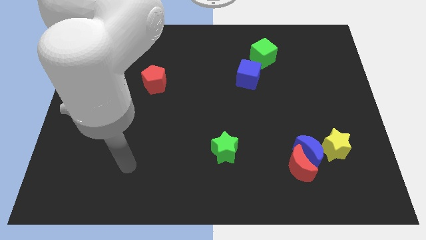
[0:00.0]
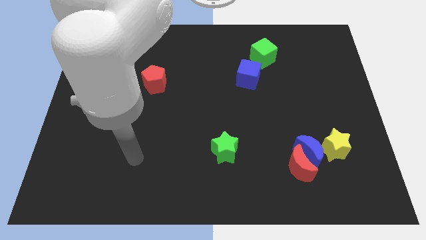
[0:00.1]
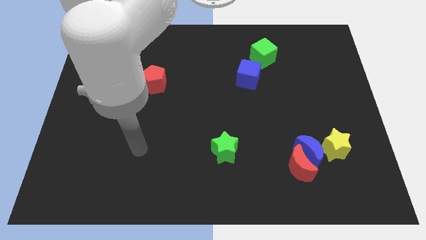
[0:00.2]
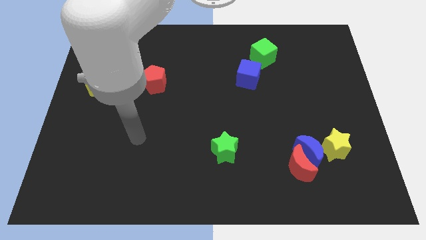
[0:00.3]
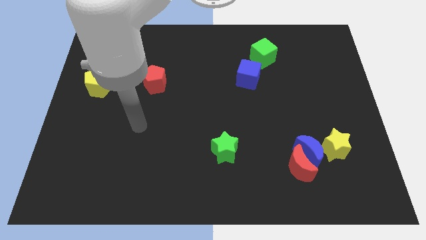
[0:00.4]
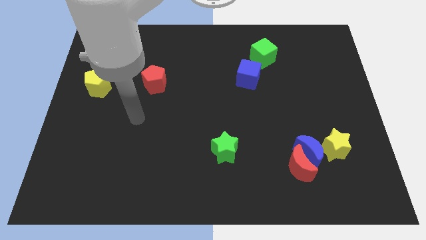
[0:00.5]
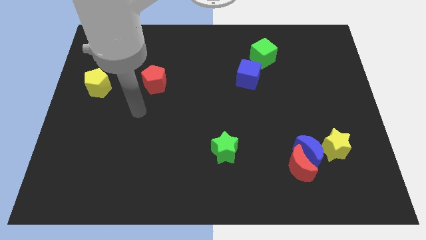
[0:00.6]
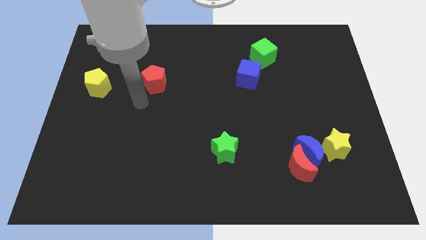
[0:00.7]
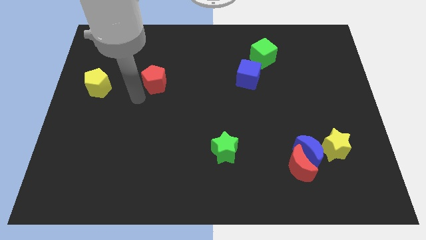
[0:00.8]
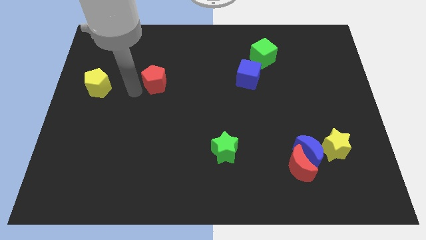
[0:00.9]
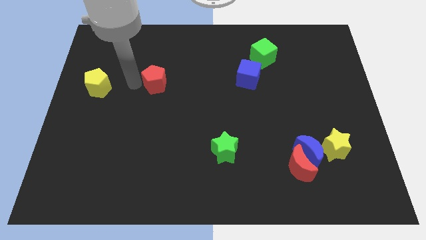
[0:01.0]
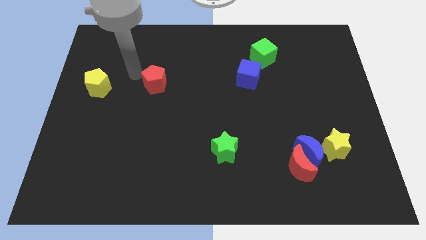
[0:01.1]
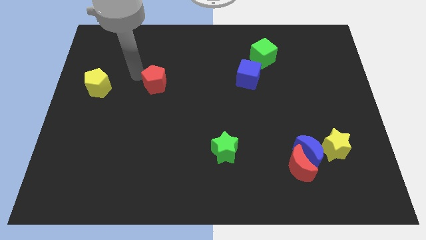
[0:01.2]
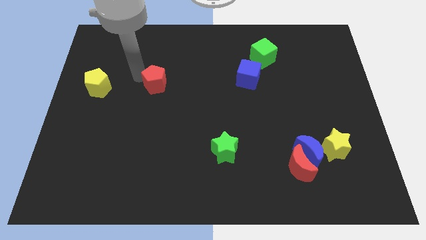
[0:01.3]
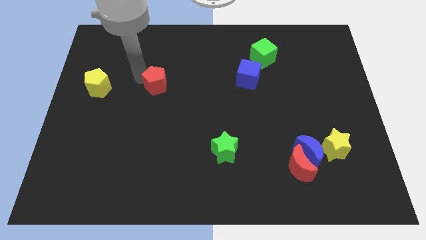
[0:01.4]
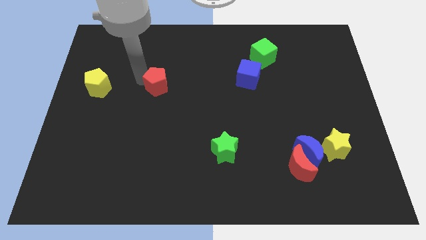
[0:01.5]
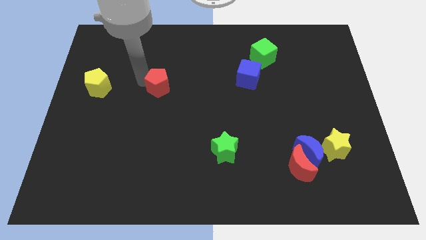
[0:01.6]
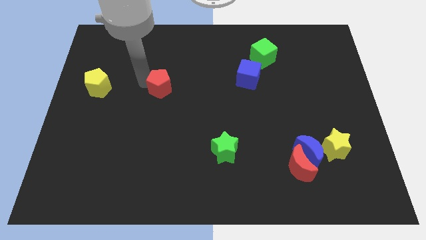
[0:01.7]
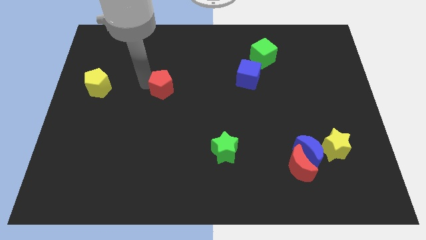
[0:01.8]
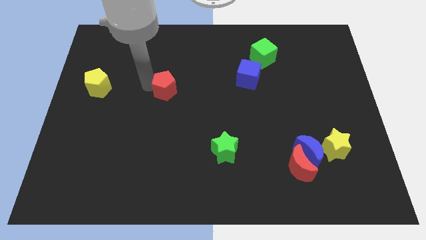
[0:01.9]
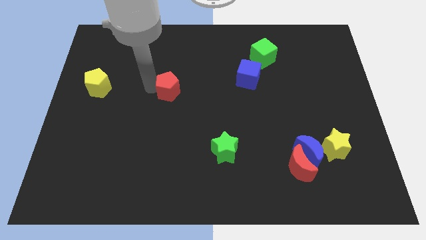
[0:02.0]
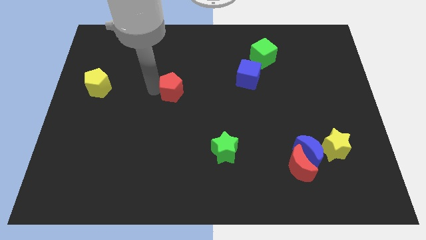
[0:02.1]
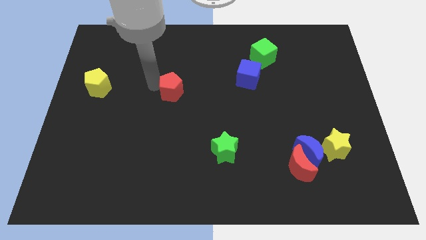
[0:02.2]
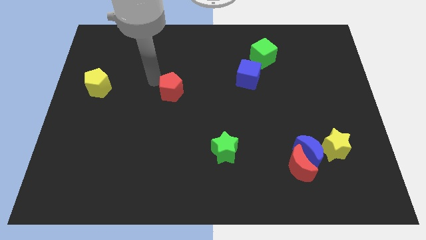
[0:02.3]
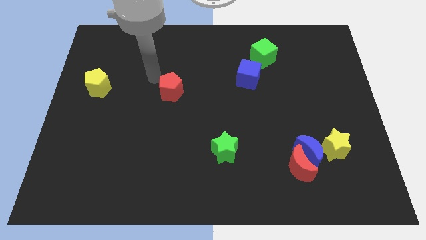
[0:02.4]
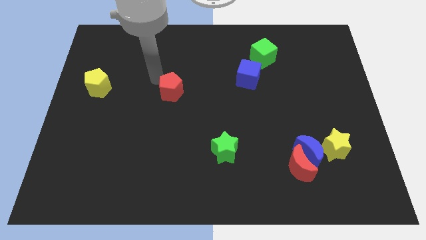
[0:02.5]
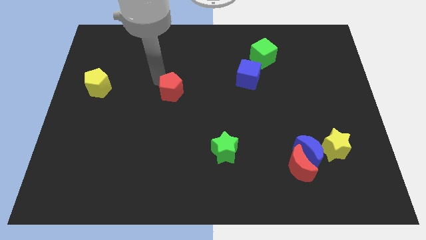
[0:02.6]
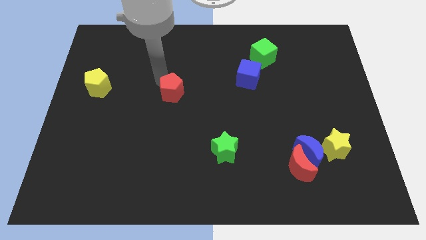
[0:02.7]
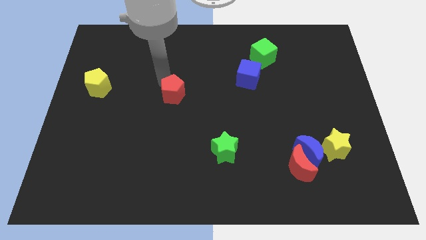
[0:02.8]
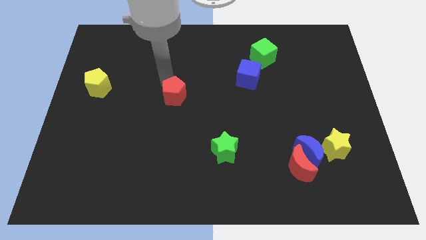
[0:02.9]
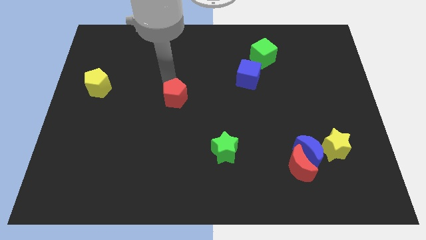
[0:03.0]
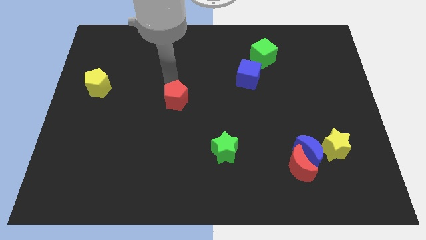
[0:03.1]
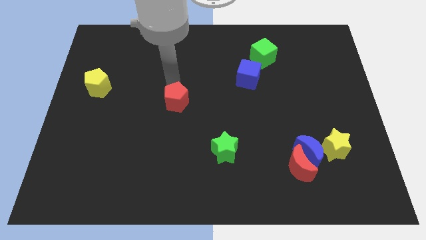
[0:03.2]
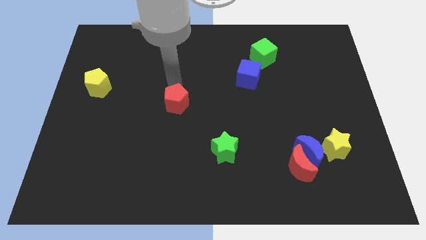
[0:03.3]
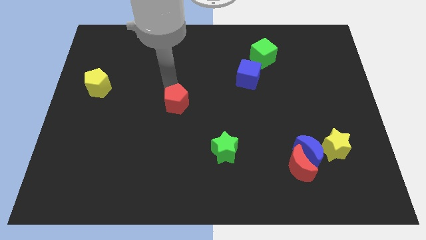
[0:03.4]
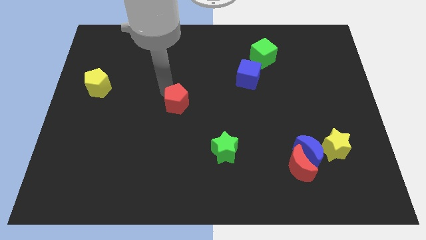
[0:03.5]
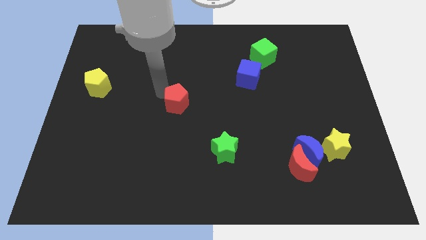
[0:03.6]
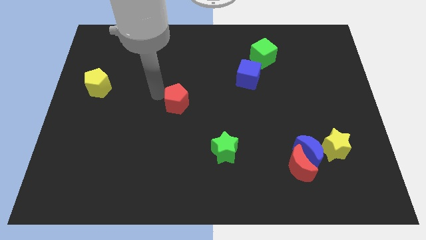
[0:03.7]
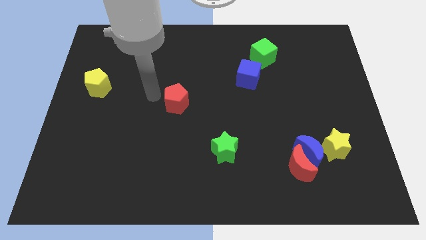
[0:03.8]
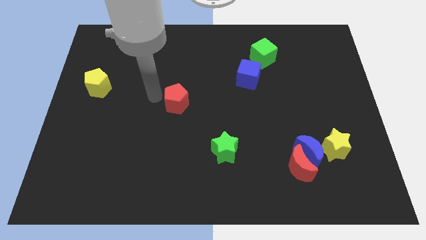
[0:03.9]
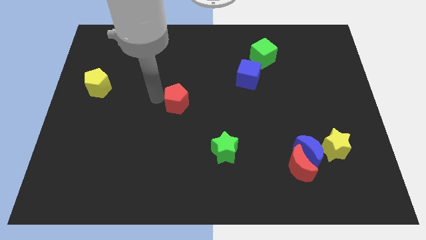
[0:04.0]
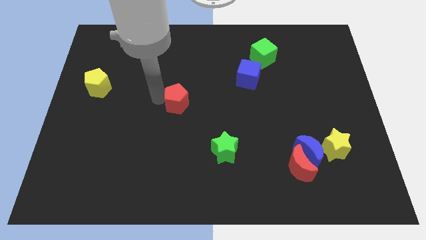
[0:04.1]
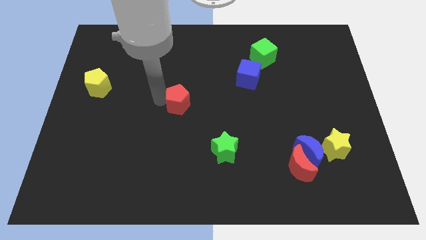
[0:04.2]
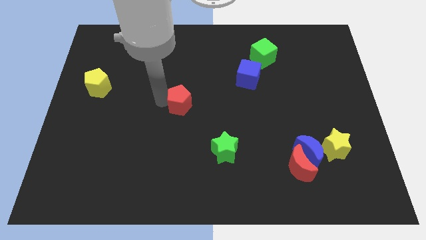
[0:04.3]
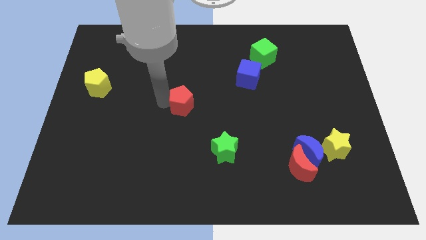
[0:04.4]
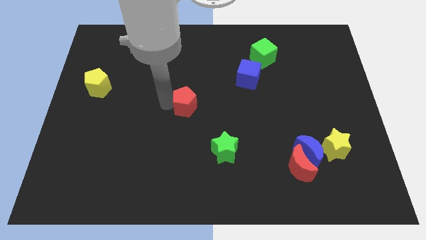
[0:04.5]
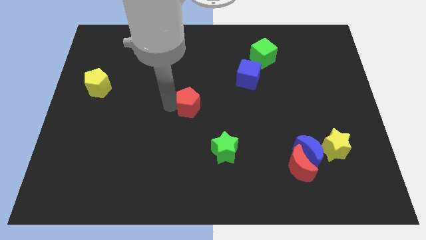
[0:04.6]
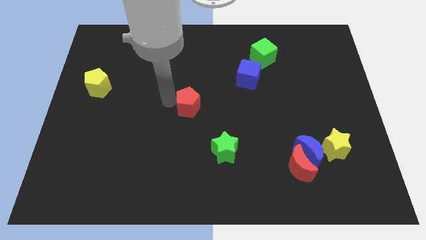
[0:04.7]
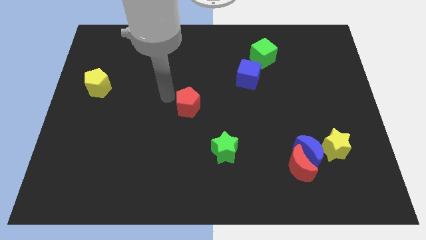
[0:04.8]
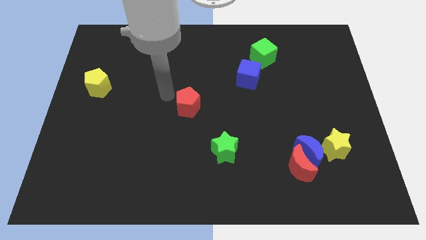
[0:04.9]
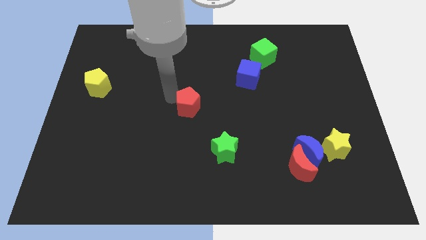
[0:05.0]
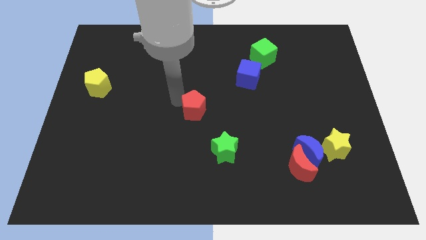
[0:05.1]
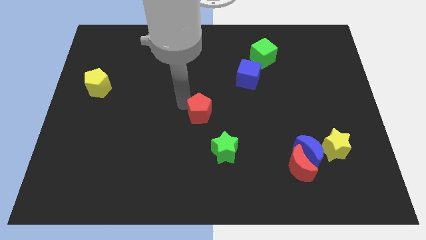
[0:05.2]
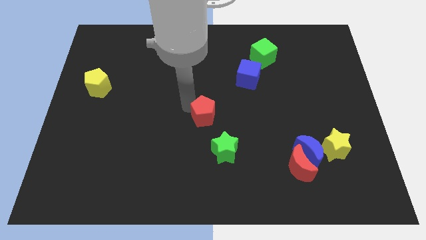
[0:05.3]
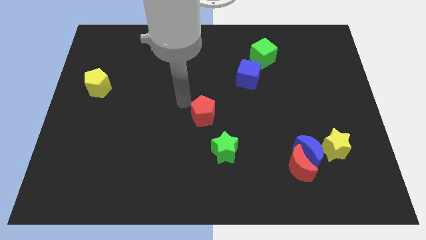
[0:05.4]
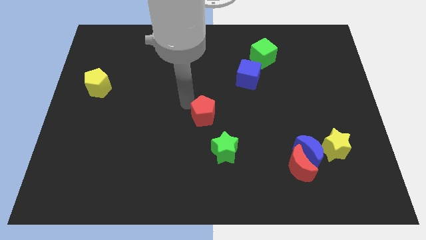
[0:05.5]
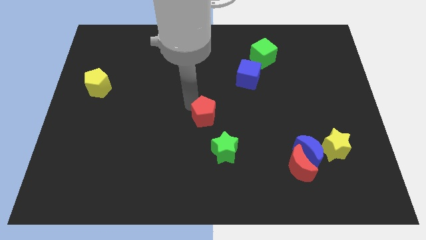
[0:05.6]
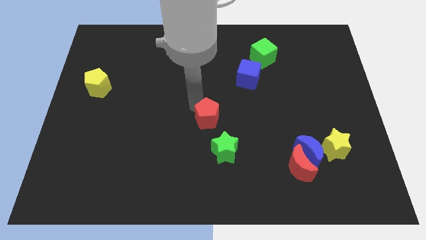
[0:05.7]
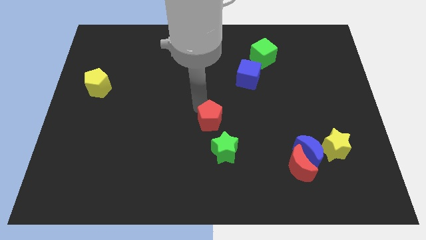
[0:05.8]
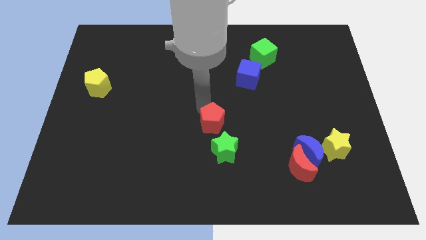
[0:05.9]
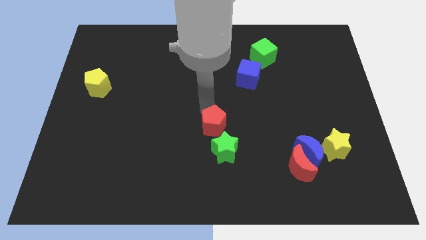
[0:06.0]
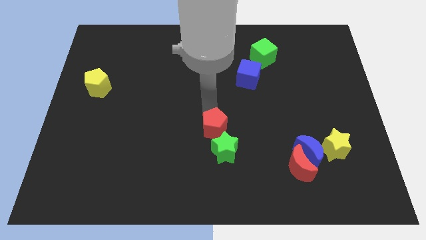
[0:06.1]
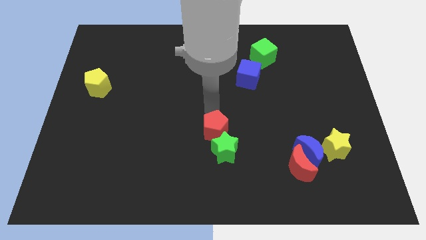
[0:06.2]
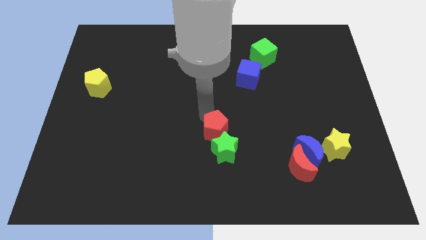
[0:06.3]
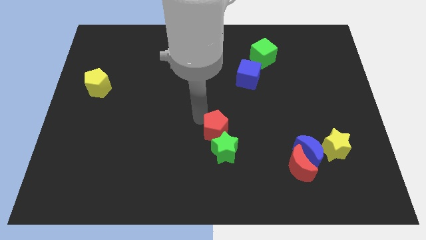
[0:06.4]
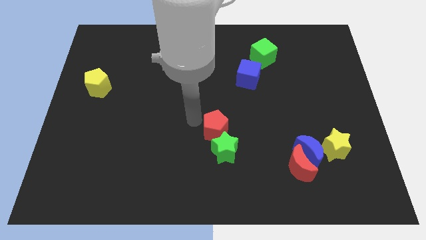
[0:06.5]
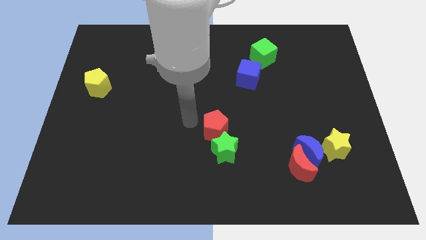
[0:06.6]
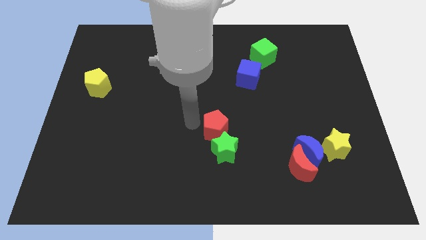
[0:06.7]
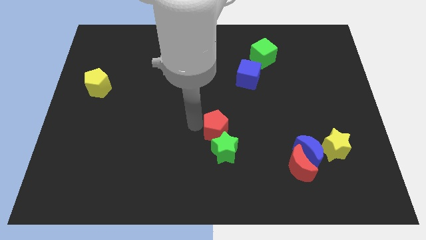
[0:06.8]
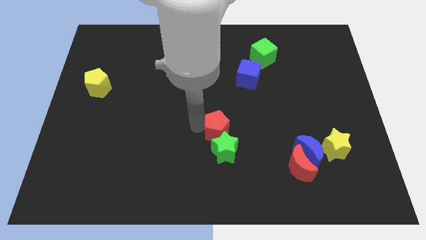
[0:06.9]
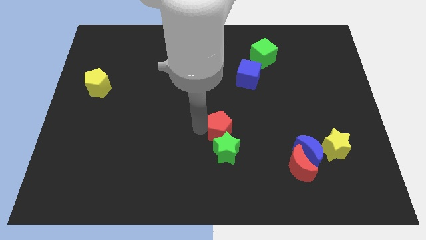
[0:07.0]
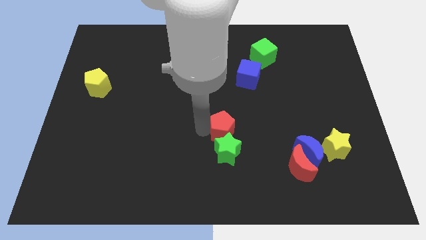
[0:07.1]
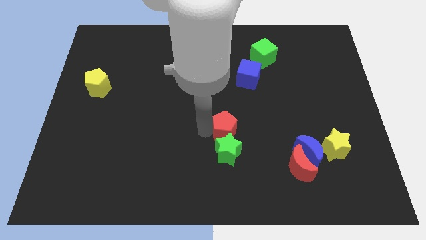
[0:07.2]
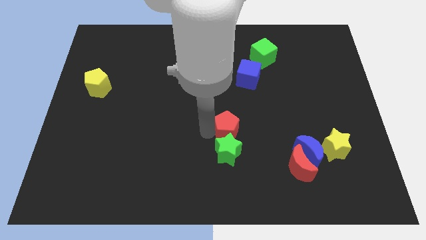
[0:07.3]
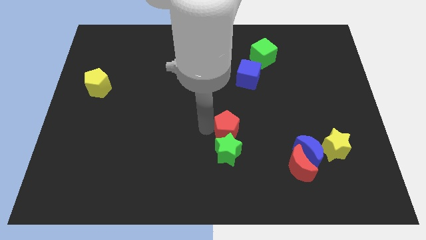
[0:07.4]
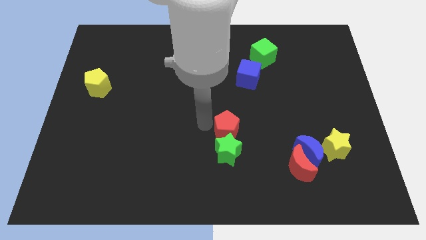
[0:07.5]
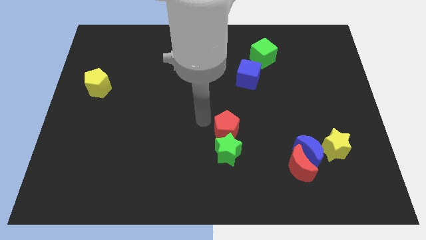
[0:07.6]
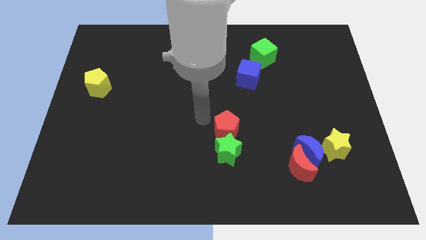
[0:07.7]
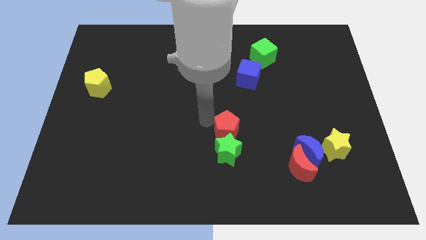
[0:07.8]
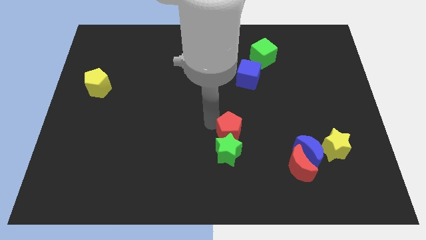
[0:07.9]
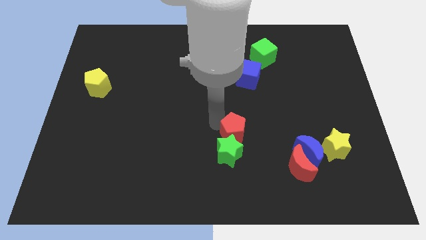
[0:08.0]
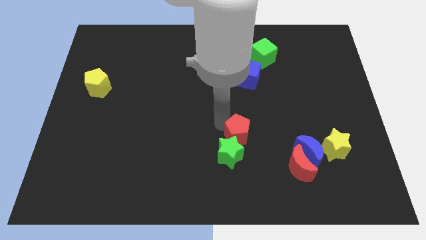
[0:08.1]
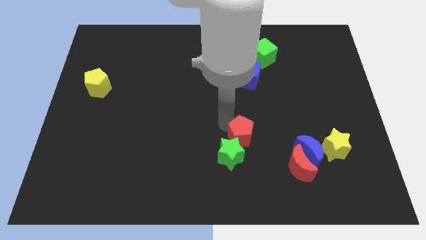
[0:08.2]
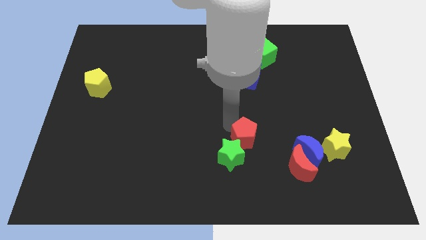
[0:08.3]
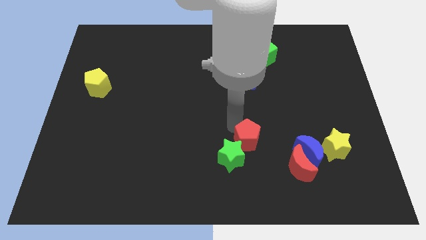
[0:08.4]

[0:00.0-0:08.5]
put the red pentagon right of the green star
